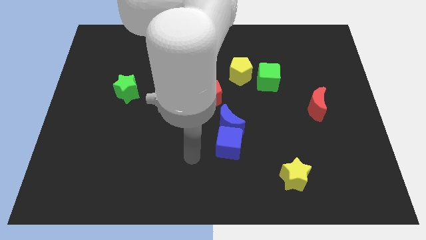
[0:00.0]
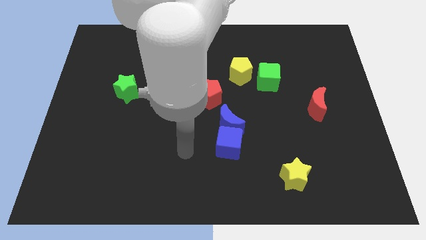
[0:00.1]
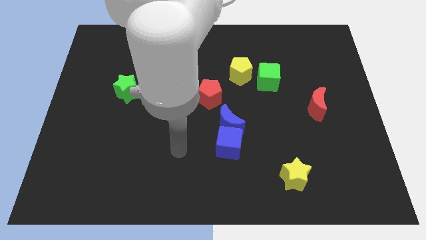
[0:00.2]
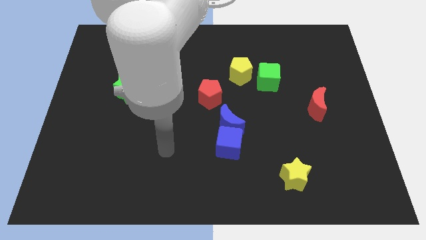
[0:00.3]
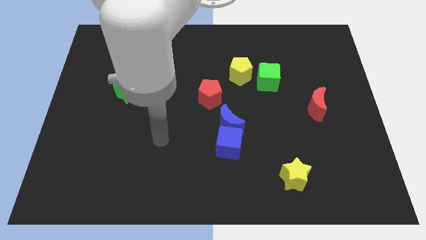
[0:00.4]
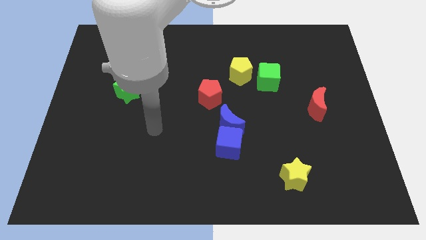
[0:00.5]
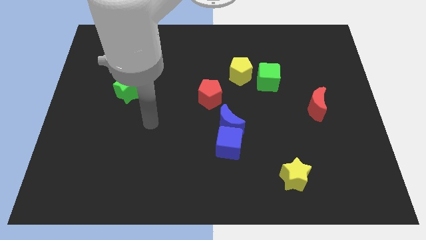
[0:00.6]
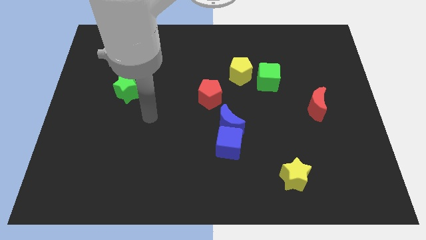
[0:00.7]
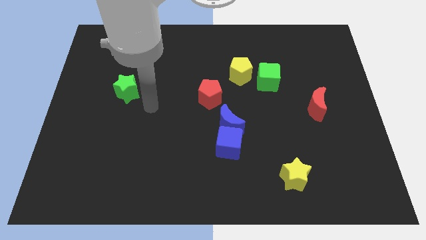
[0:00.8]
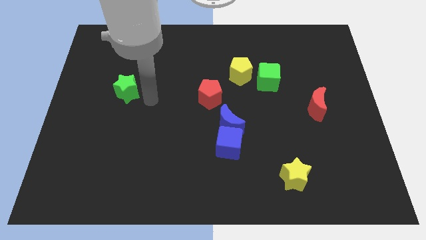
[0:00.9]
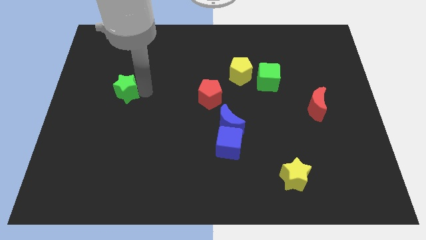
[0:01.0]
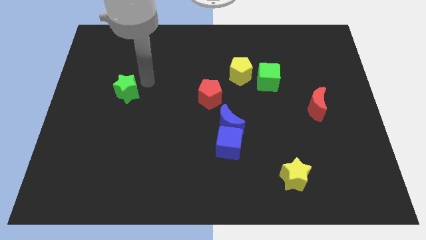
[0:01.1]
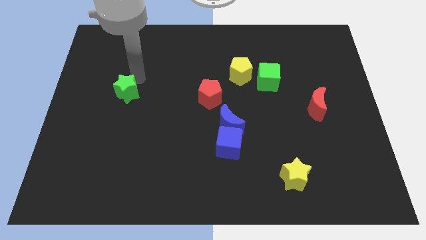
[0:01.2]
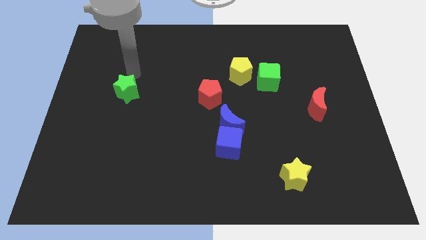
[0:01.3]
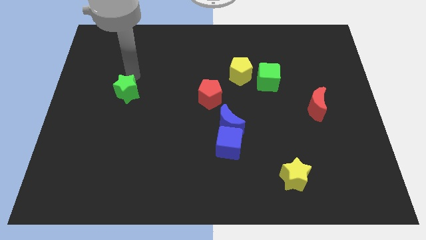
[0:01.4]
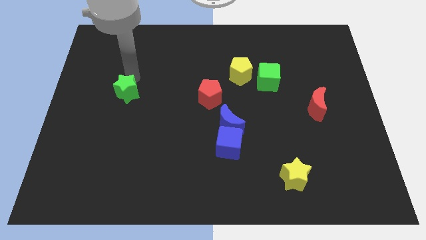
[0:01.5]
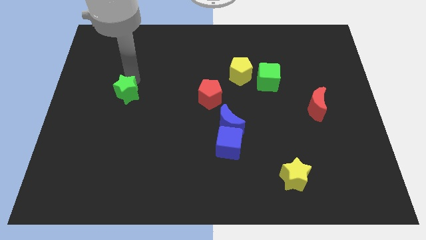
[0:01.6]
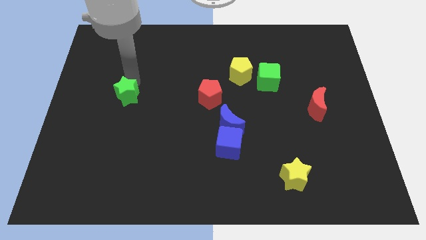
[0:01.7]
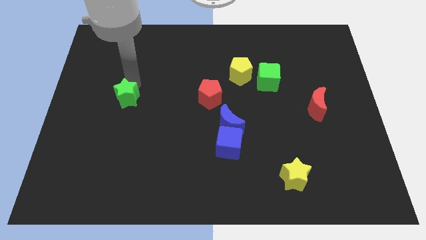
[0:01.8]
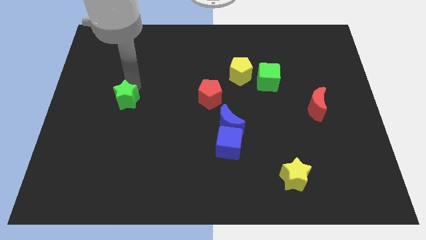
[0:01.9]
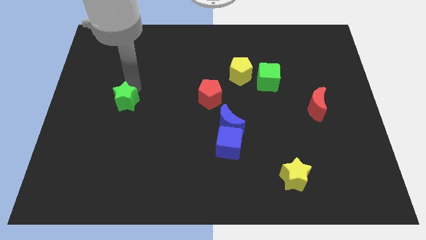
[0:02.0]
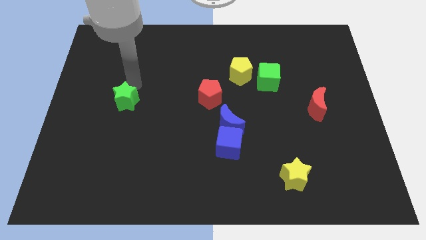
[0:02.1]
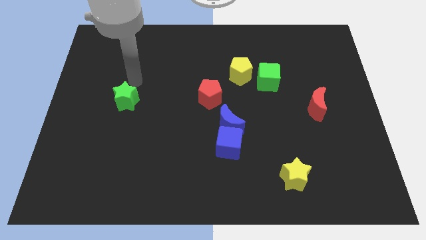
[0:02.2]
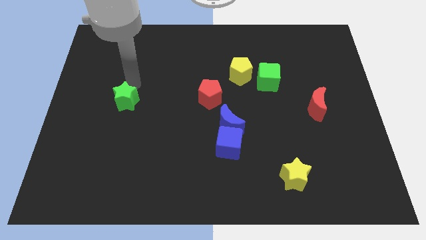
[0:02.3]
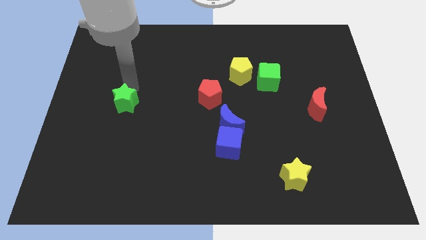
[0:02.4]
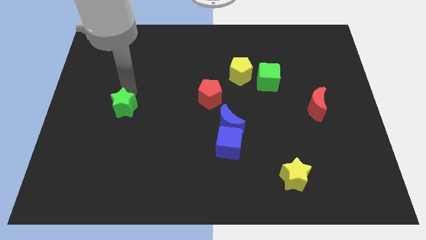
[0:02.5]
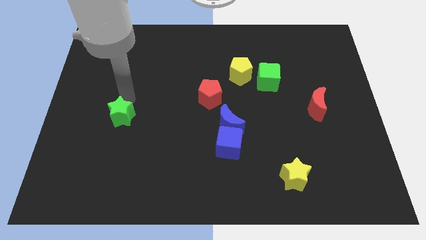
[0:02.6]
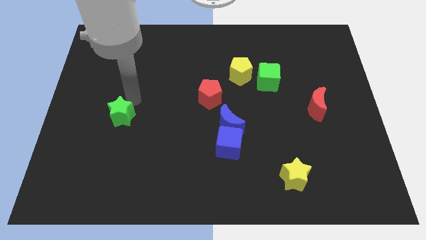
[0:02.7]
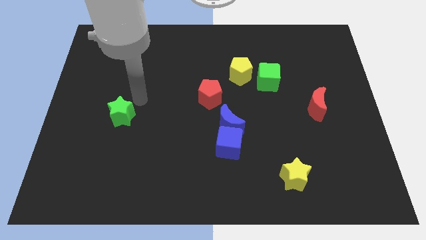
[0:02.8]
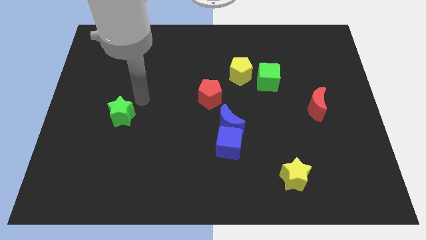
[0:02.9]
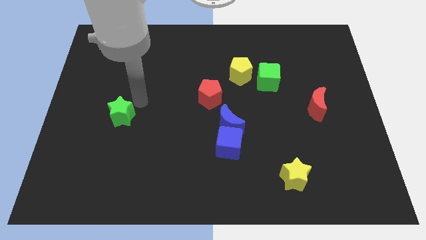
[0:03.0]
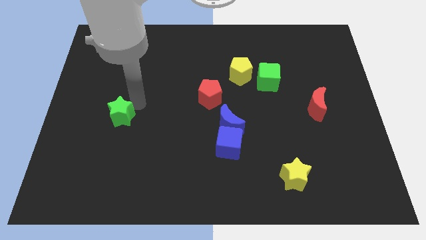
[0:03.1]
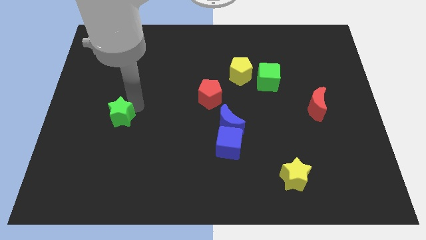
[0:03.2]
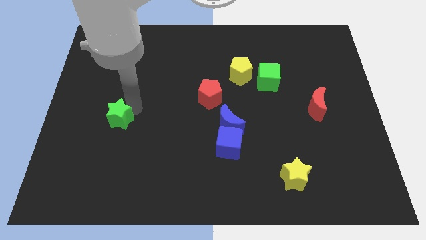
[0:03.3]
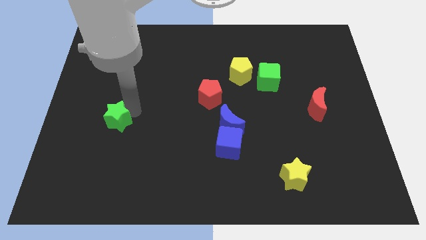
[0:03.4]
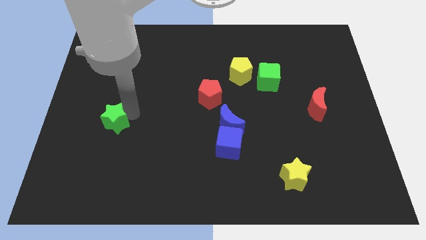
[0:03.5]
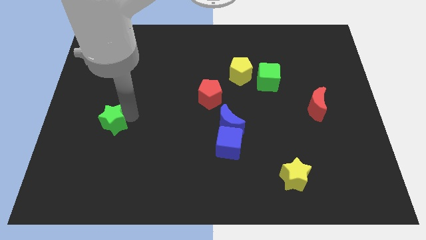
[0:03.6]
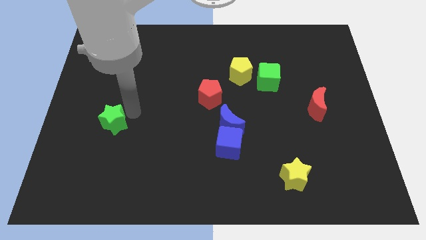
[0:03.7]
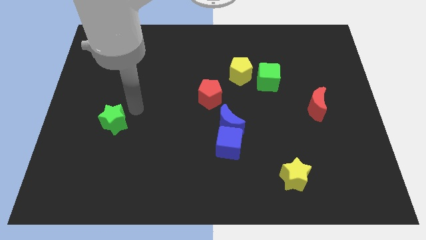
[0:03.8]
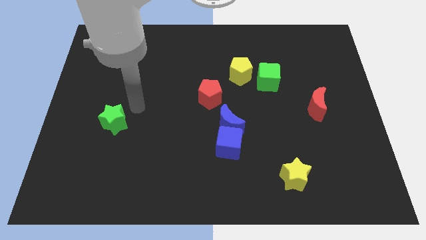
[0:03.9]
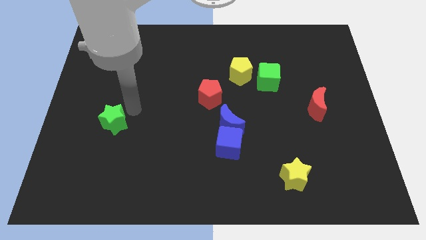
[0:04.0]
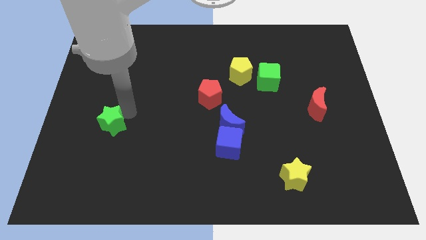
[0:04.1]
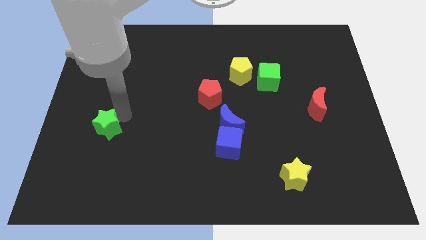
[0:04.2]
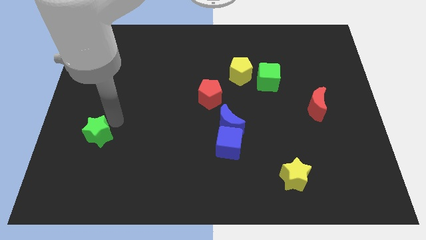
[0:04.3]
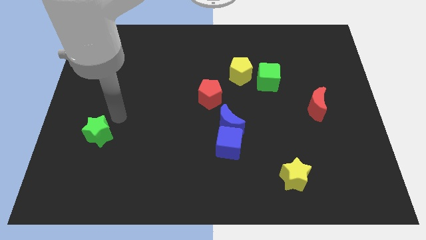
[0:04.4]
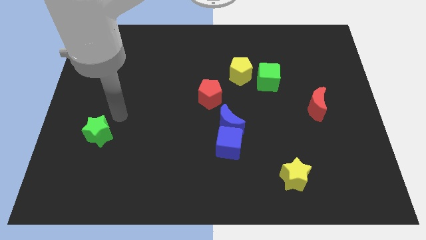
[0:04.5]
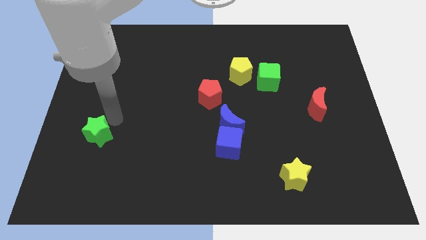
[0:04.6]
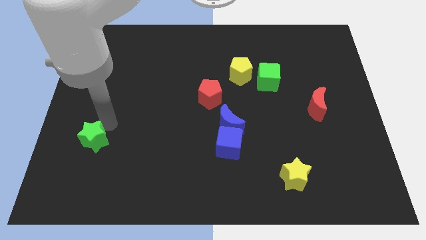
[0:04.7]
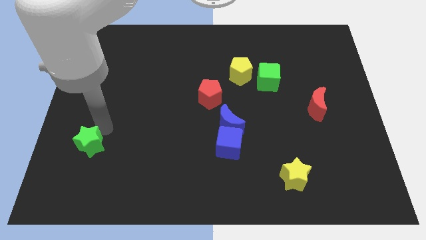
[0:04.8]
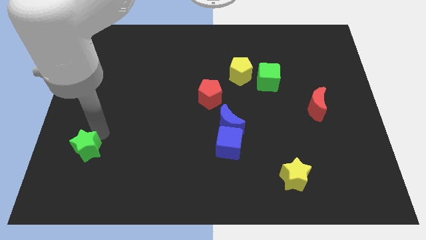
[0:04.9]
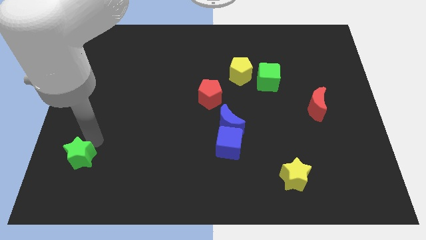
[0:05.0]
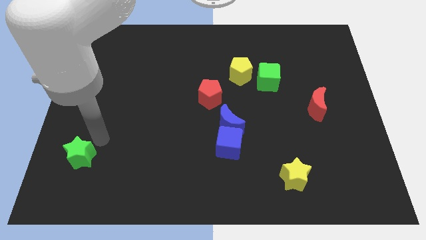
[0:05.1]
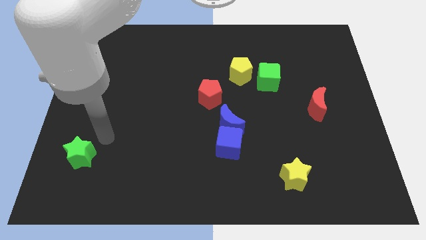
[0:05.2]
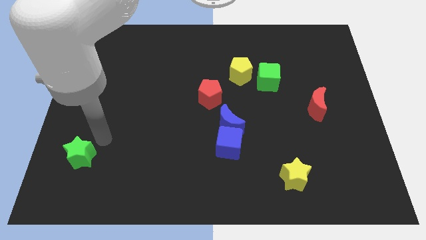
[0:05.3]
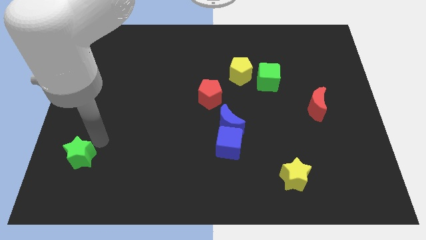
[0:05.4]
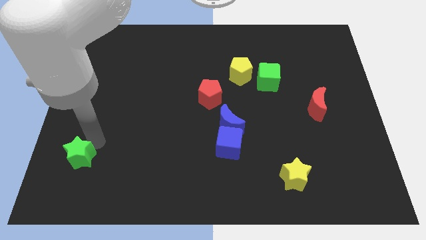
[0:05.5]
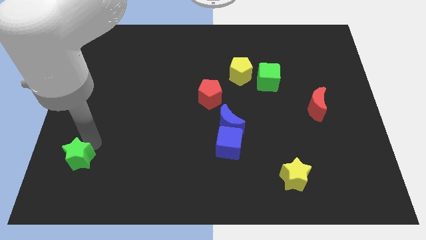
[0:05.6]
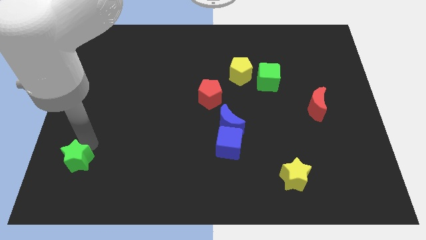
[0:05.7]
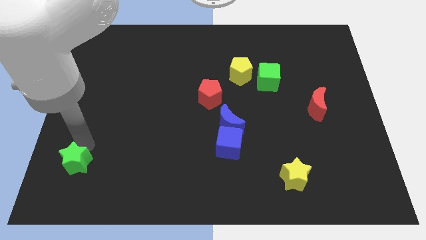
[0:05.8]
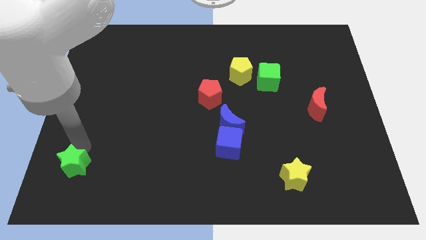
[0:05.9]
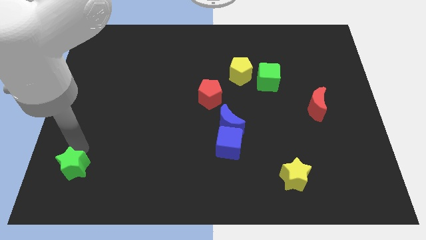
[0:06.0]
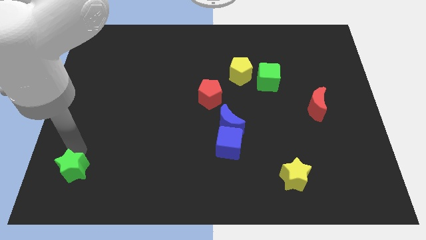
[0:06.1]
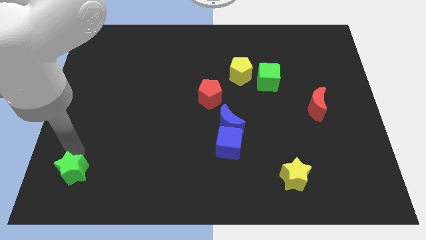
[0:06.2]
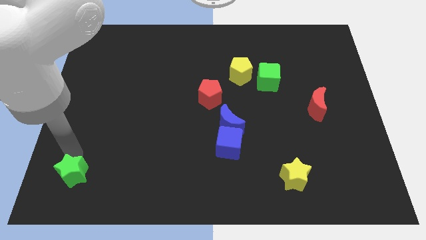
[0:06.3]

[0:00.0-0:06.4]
push the green star to the bottom left corner

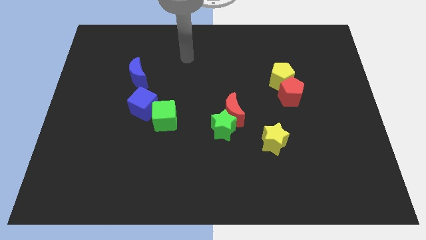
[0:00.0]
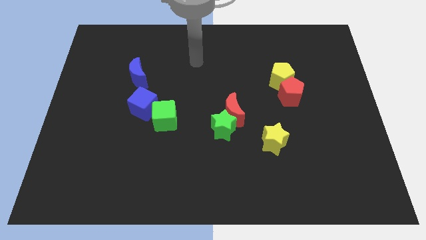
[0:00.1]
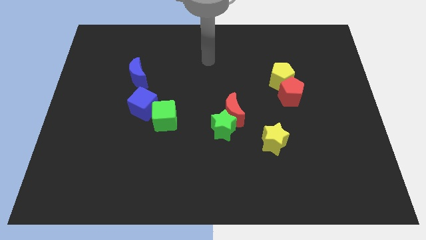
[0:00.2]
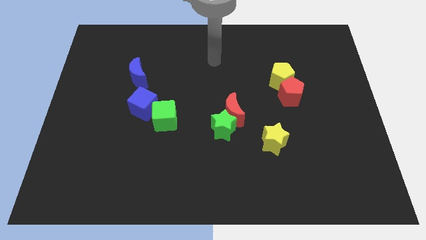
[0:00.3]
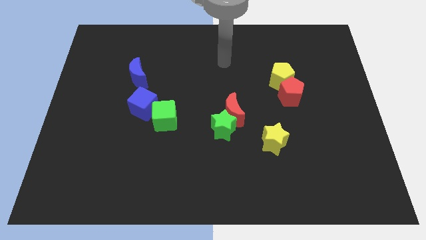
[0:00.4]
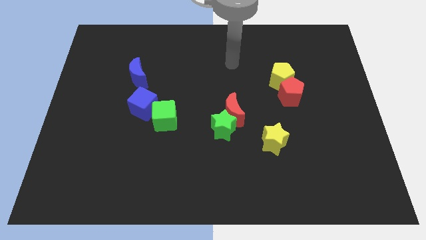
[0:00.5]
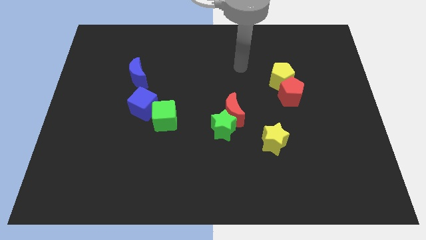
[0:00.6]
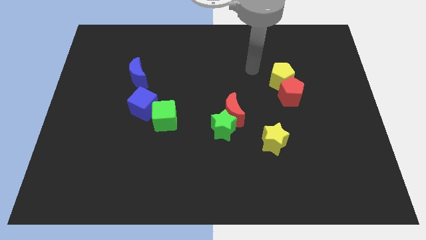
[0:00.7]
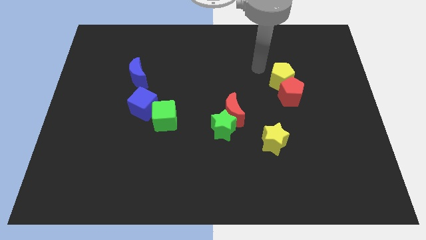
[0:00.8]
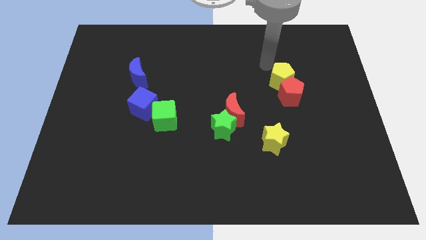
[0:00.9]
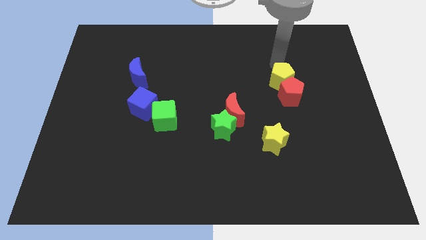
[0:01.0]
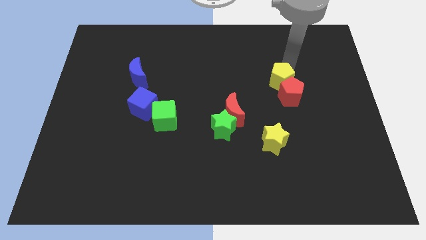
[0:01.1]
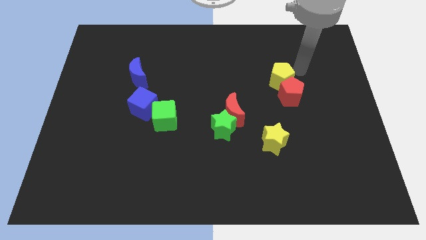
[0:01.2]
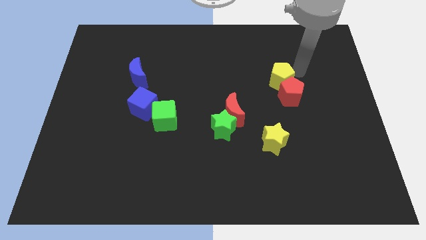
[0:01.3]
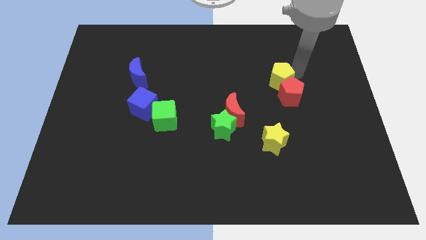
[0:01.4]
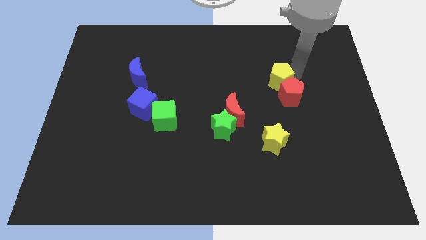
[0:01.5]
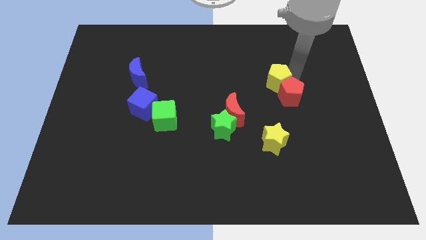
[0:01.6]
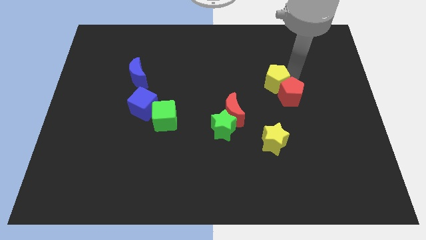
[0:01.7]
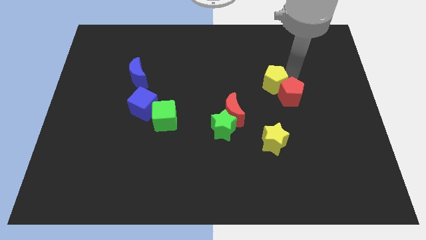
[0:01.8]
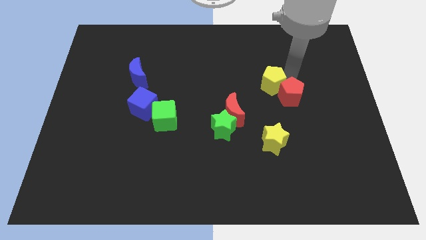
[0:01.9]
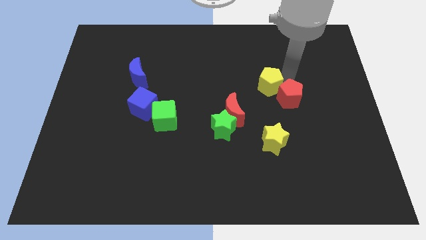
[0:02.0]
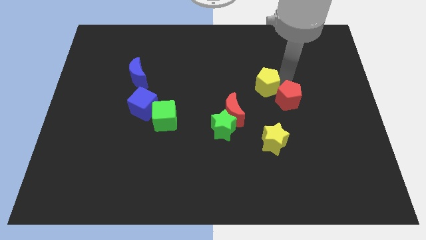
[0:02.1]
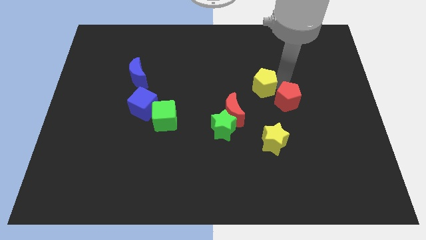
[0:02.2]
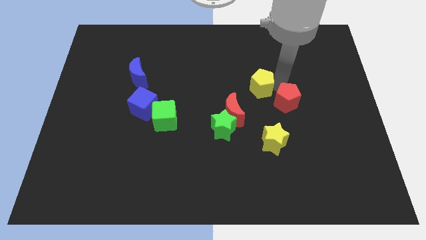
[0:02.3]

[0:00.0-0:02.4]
put the yellow pentagon to the middle
